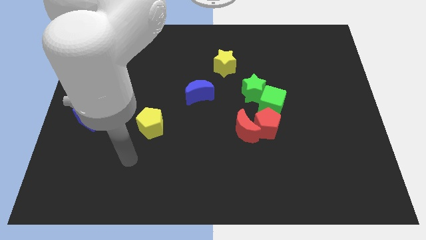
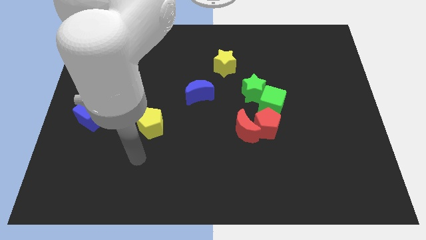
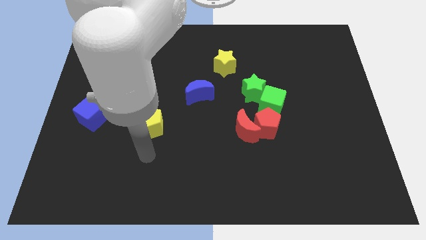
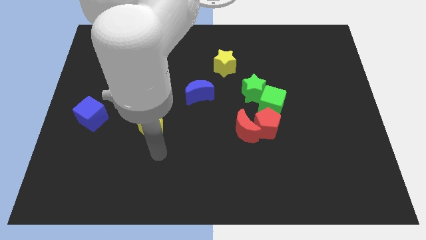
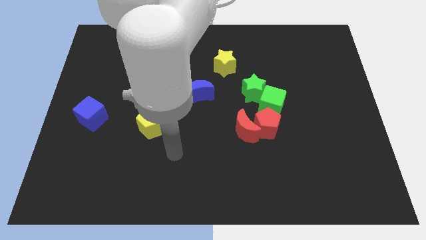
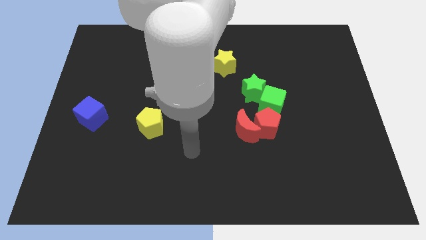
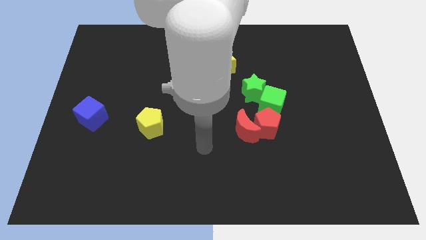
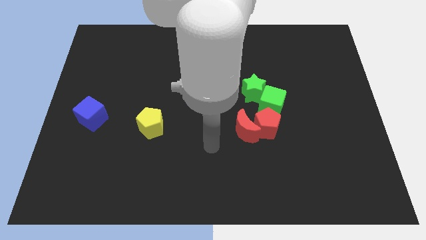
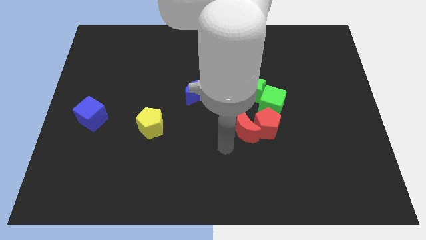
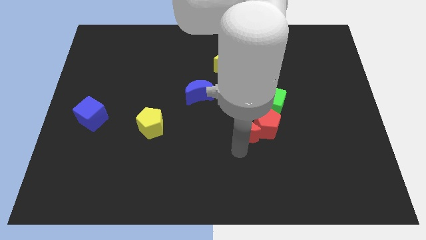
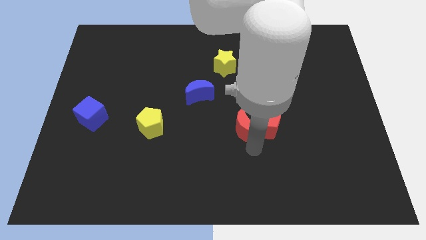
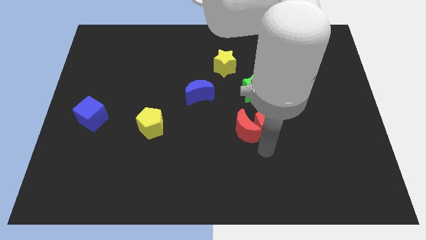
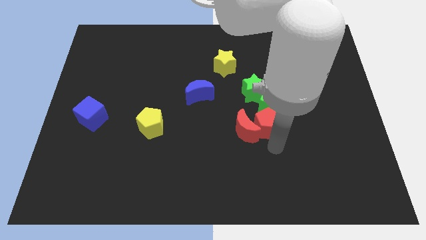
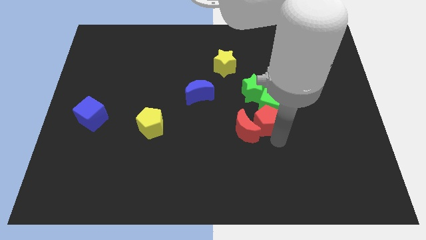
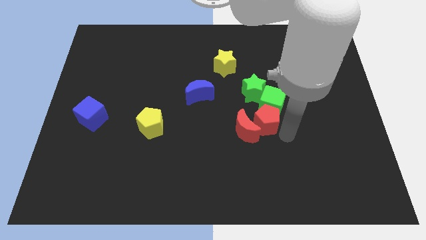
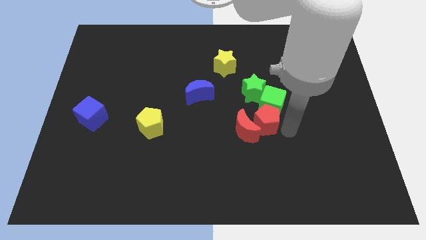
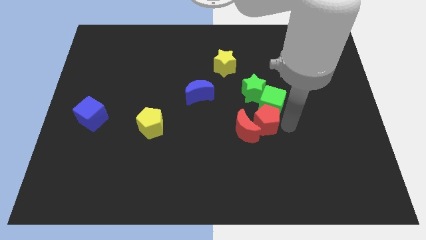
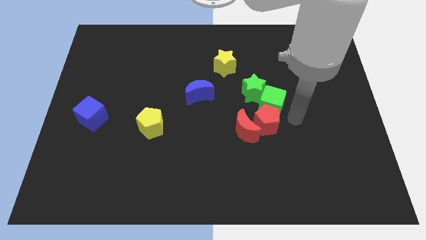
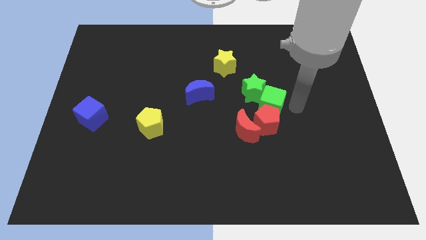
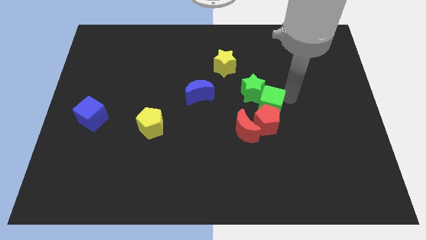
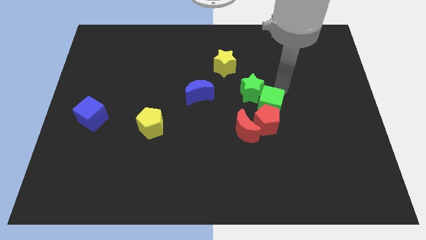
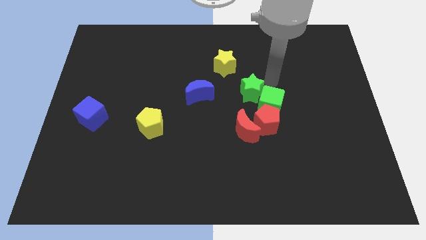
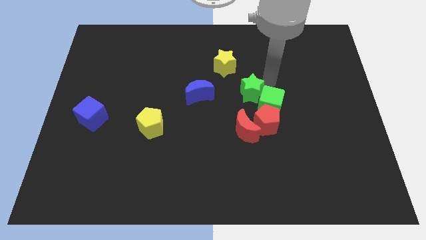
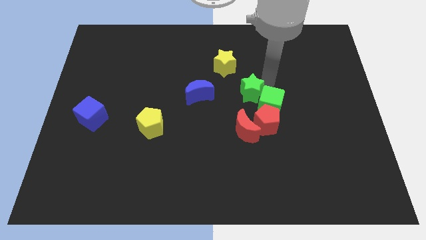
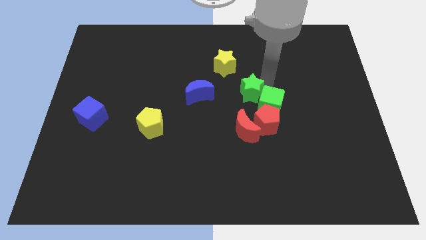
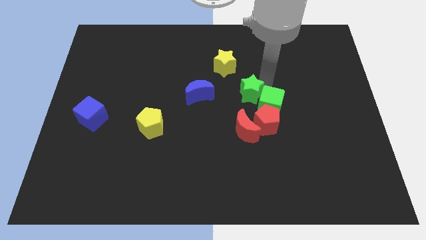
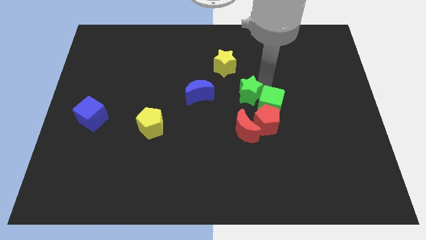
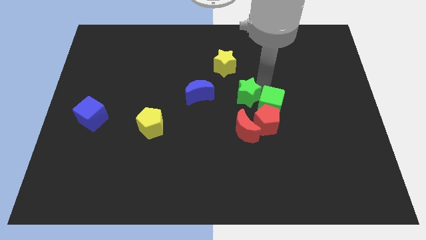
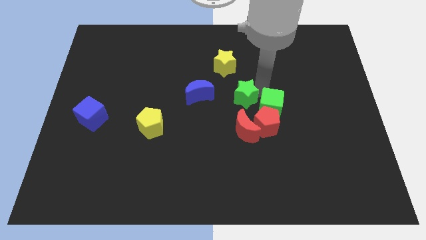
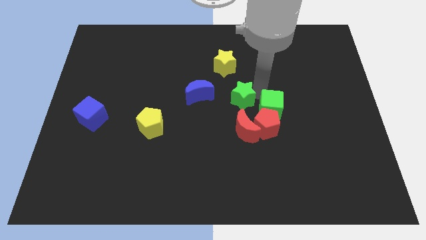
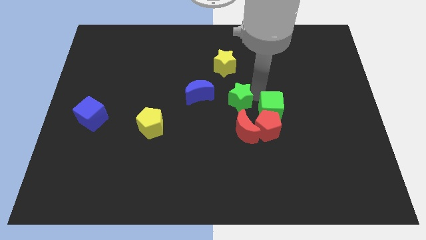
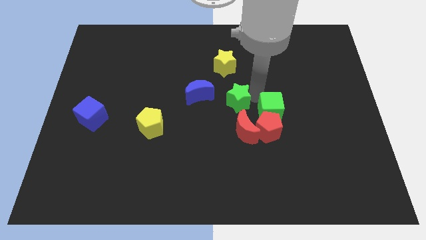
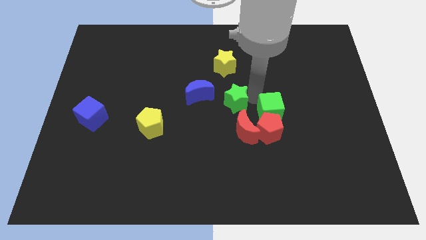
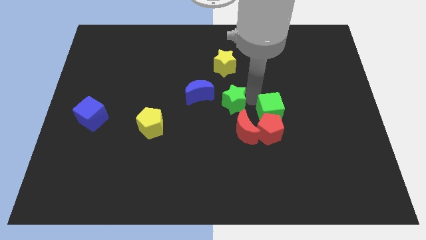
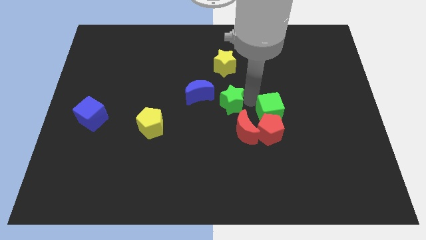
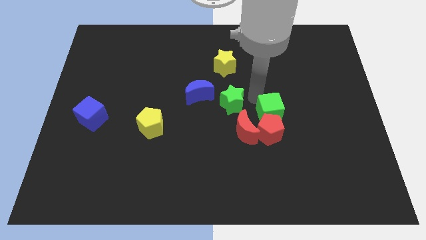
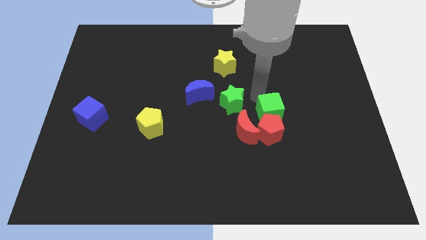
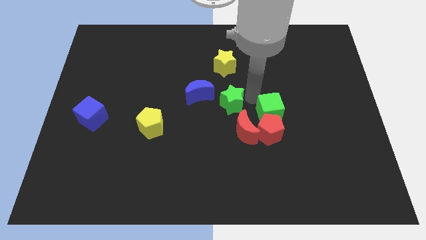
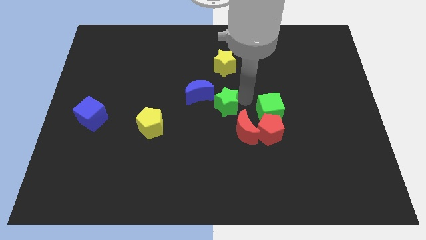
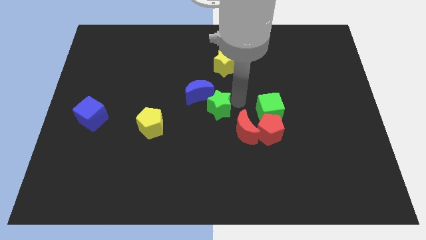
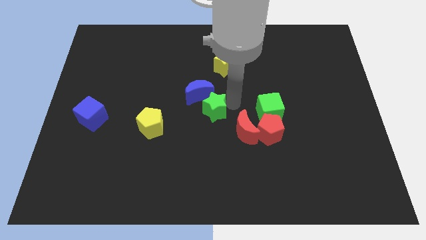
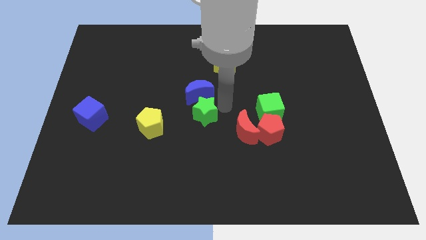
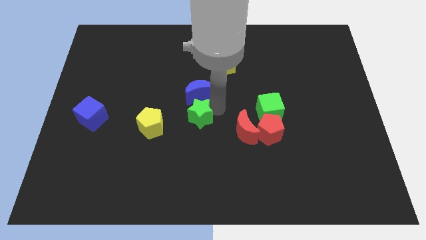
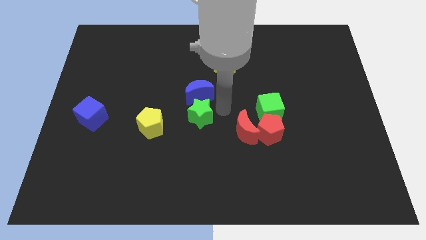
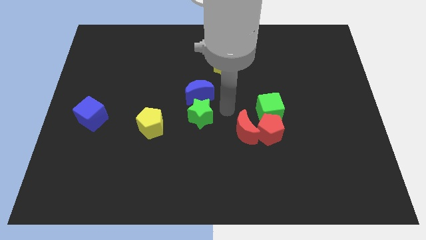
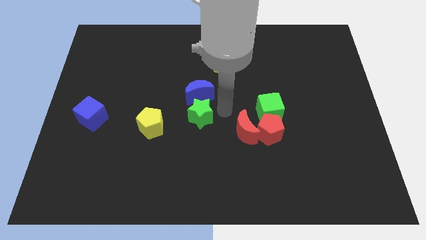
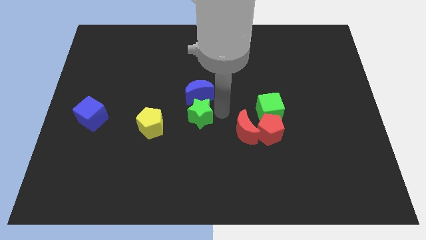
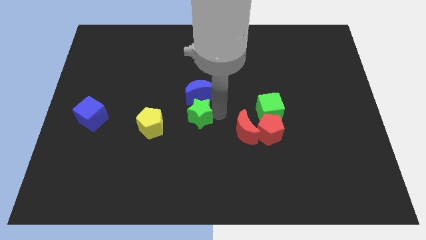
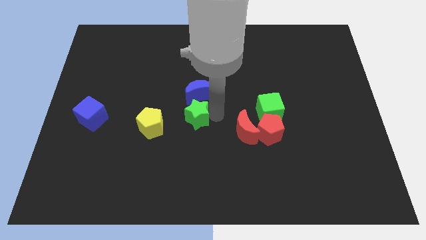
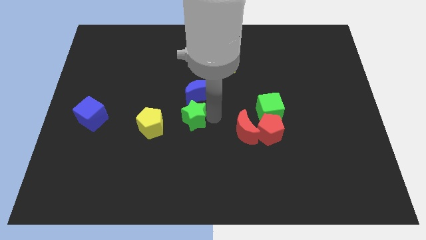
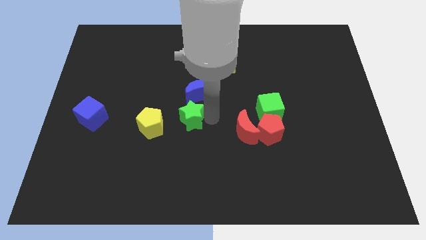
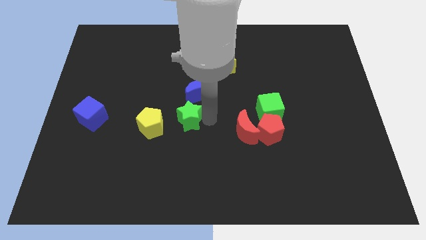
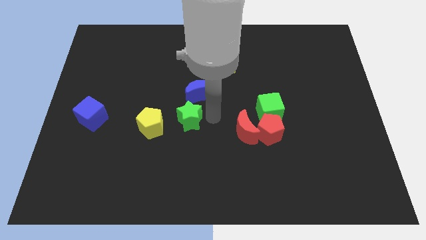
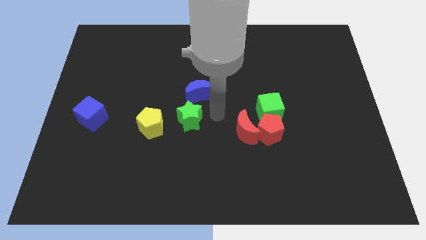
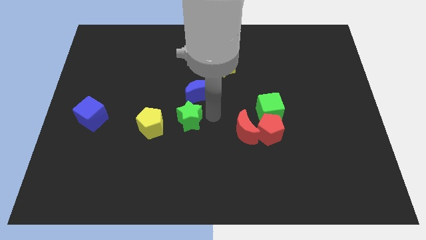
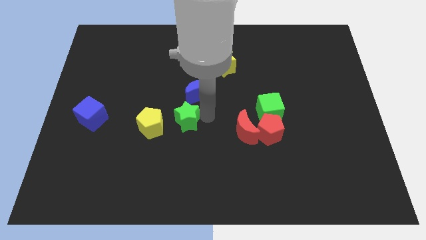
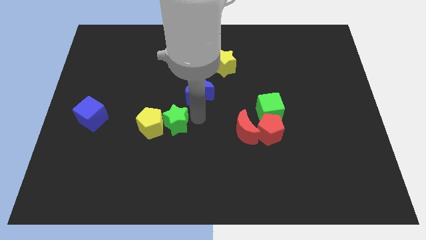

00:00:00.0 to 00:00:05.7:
slide the green star to the yellow pentagon

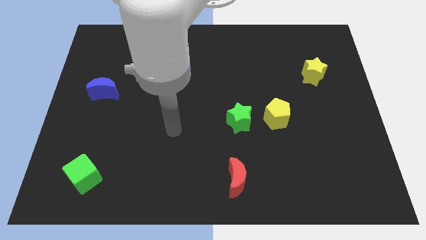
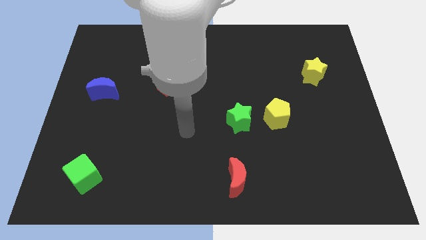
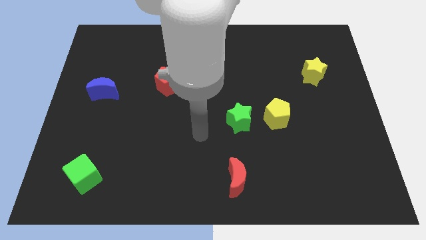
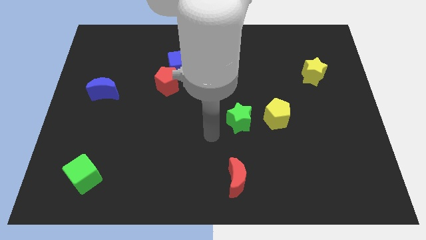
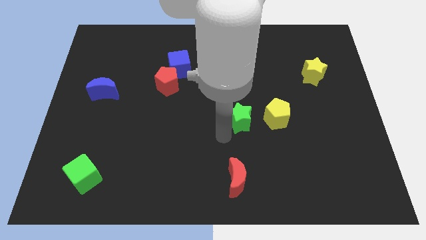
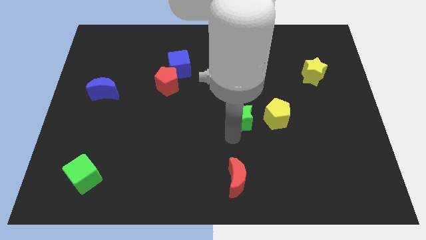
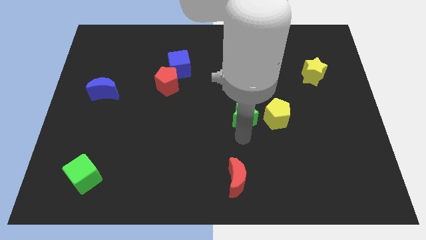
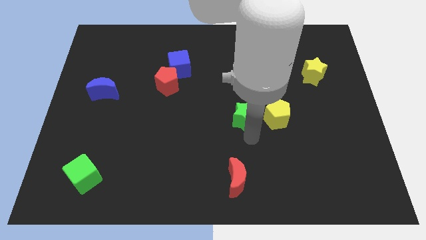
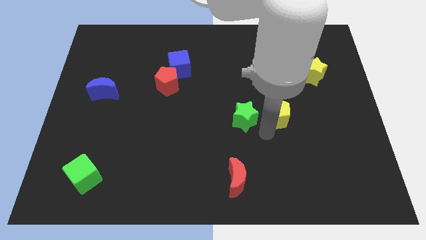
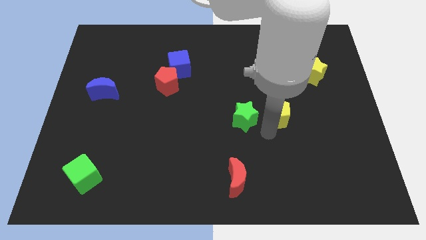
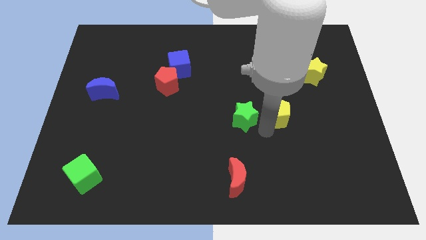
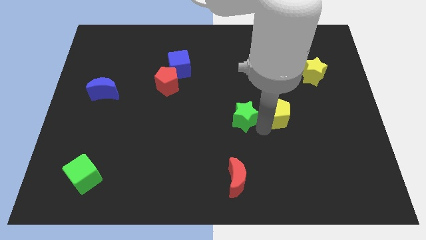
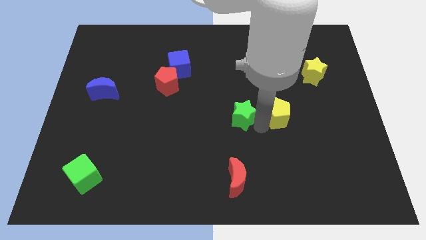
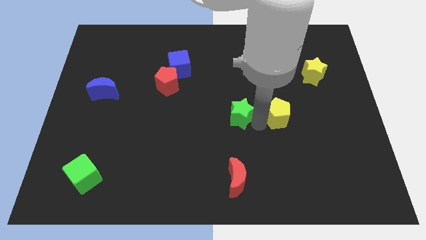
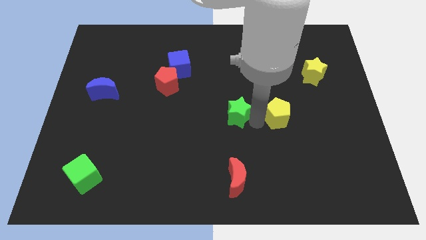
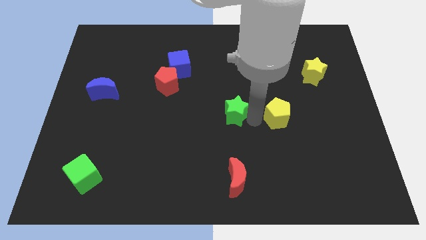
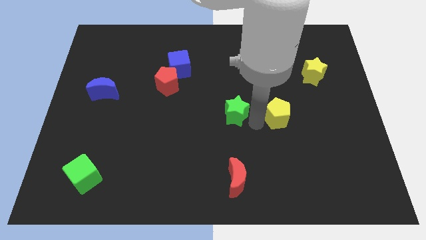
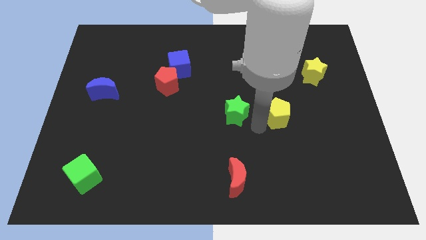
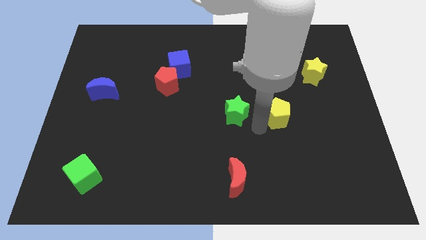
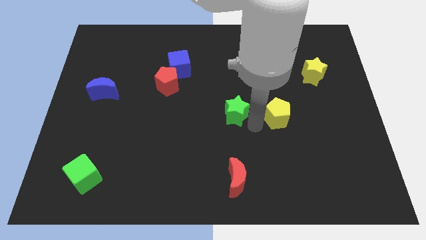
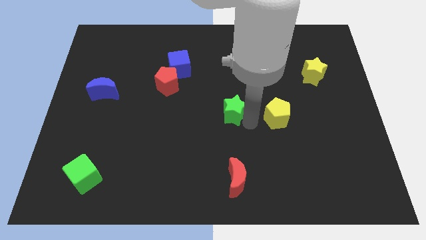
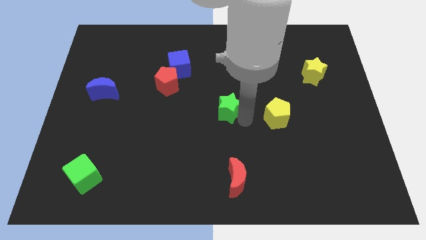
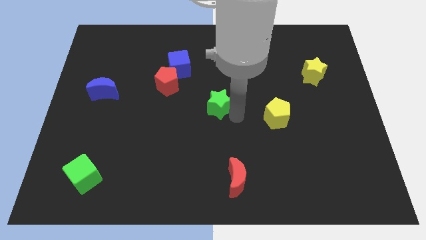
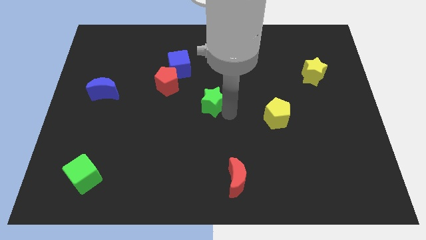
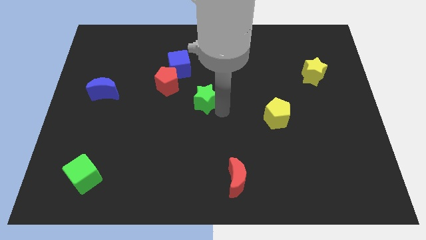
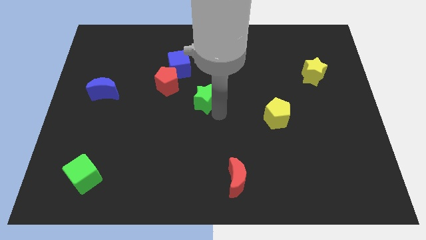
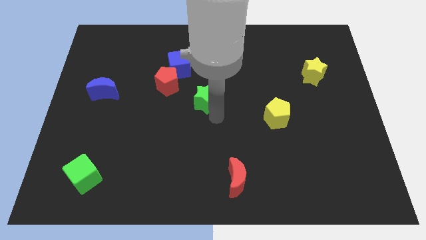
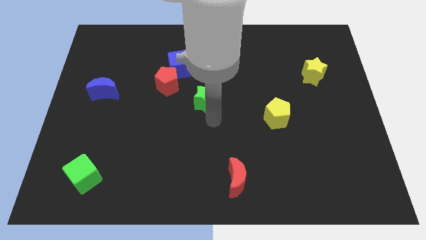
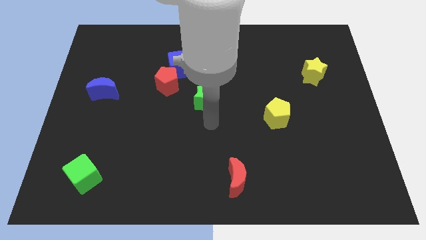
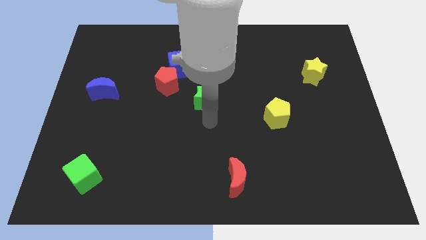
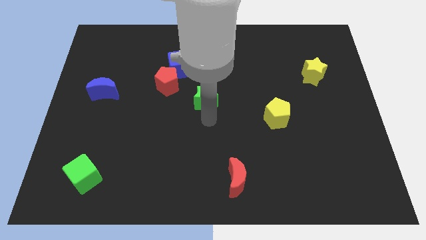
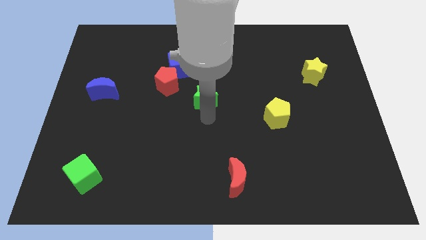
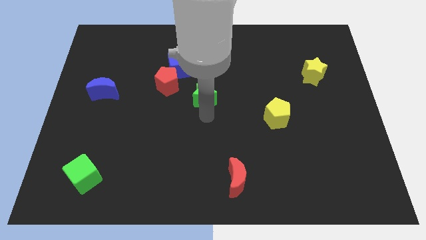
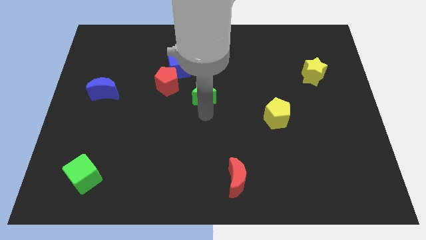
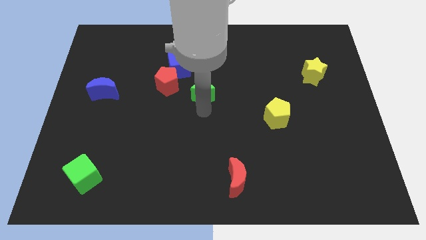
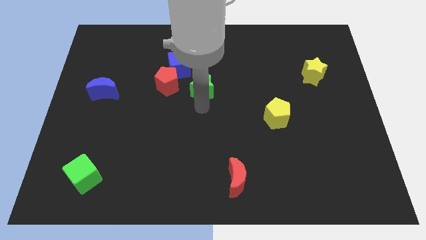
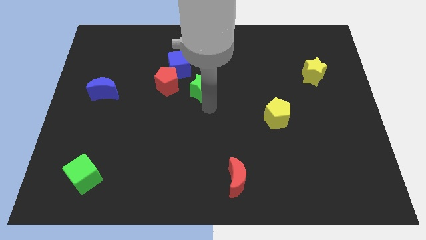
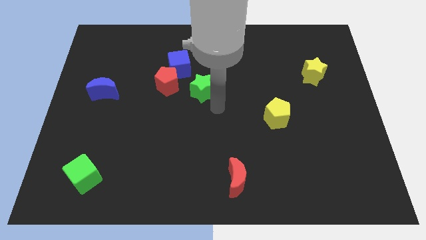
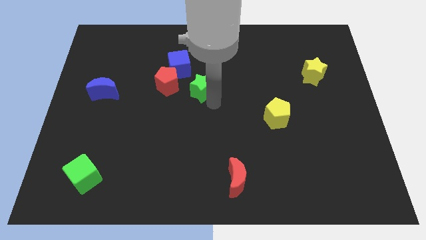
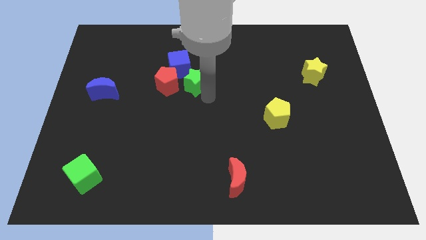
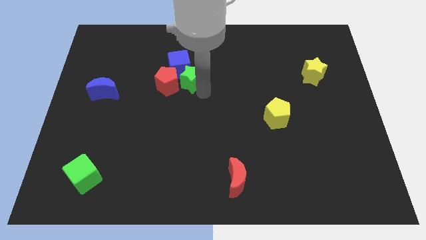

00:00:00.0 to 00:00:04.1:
slide the green star to the blue cube
